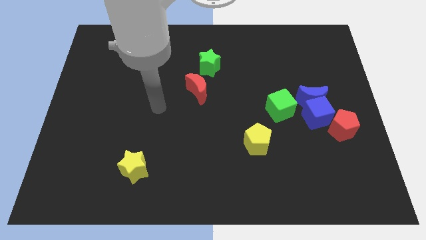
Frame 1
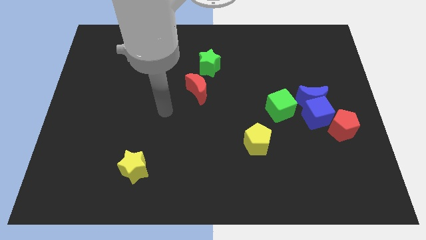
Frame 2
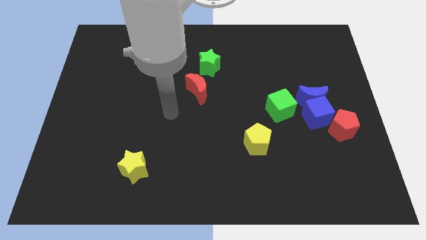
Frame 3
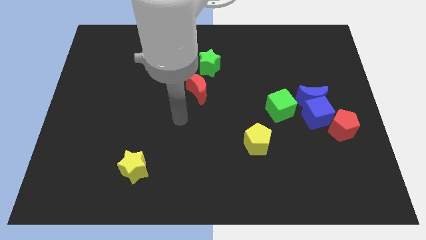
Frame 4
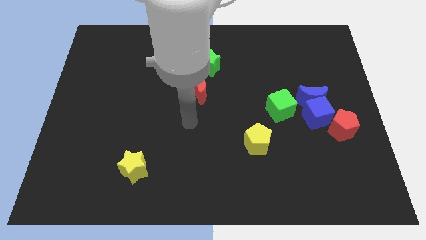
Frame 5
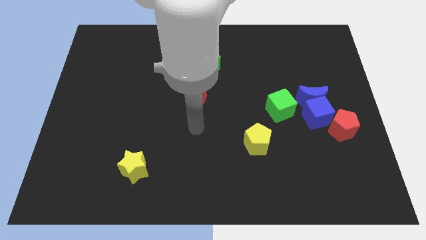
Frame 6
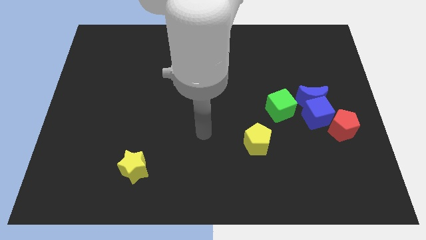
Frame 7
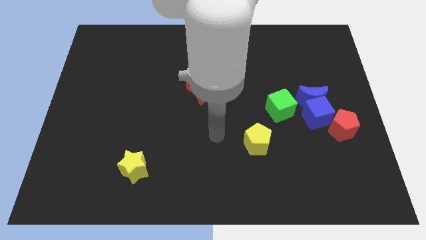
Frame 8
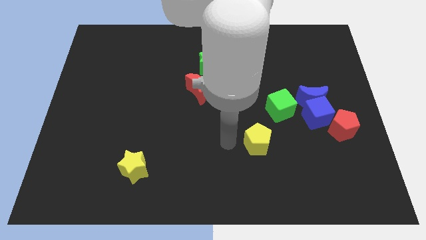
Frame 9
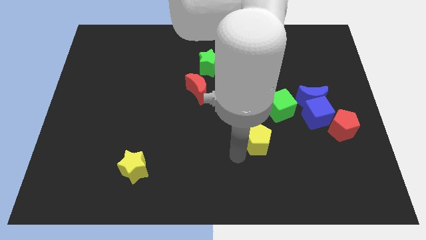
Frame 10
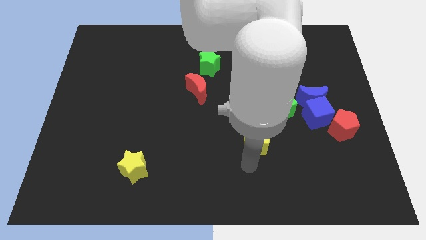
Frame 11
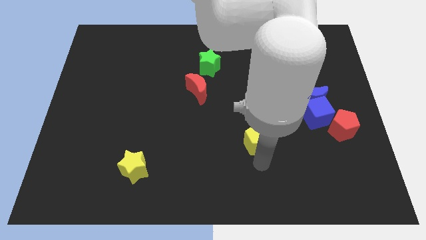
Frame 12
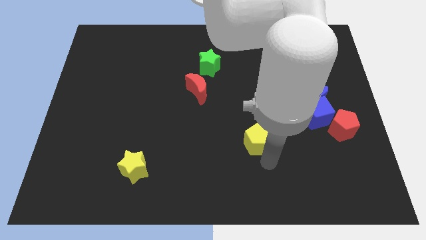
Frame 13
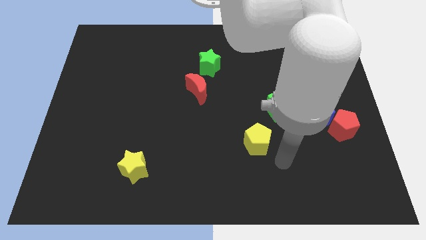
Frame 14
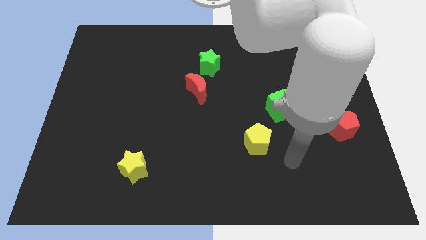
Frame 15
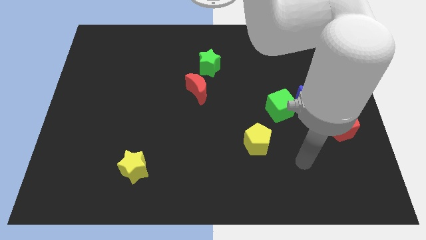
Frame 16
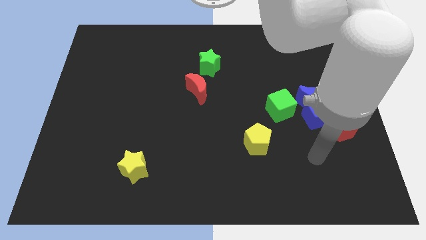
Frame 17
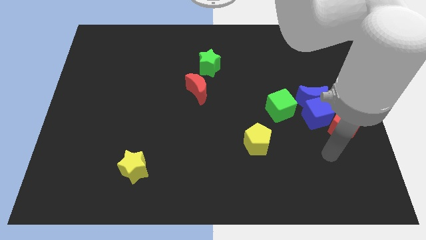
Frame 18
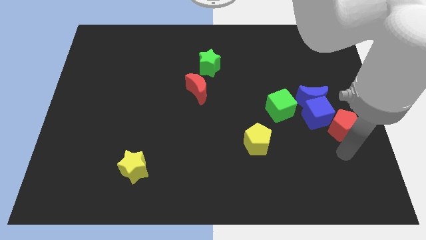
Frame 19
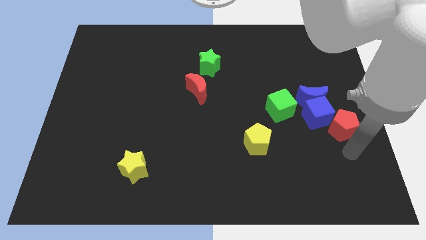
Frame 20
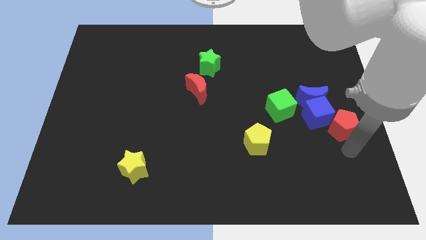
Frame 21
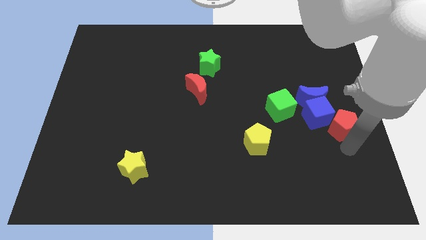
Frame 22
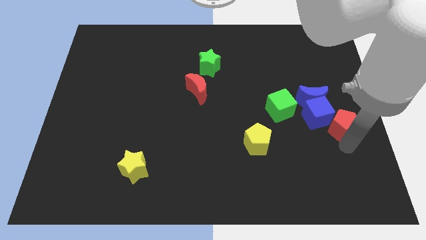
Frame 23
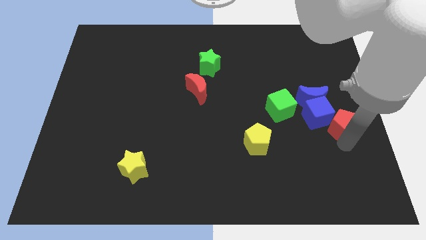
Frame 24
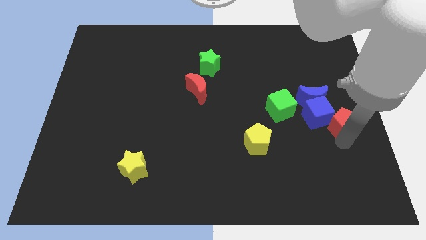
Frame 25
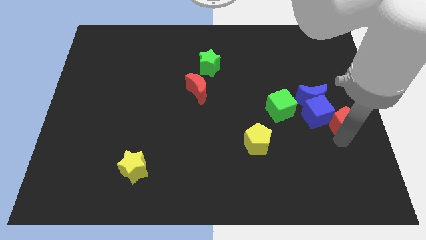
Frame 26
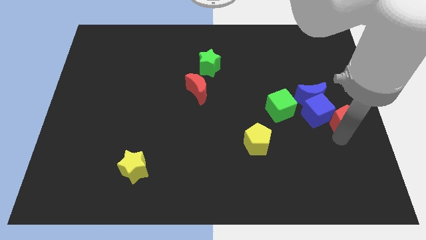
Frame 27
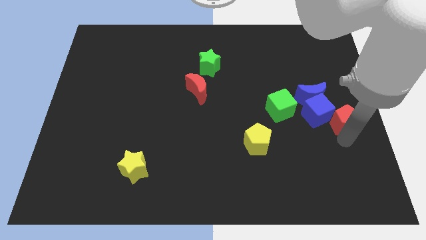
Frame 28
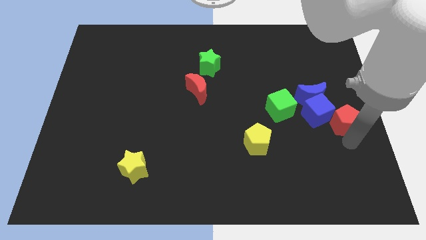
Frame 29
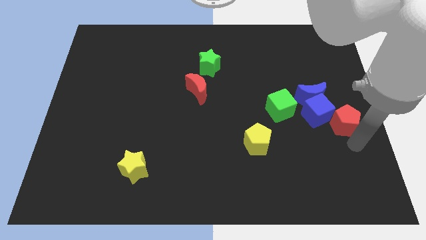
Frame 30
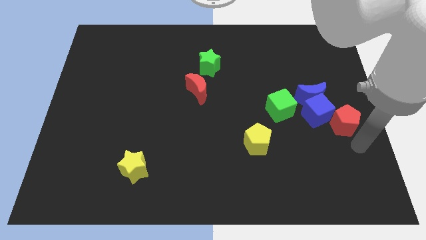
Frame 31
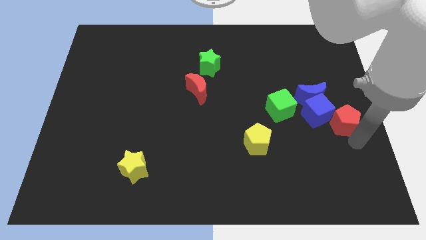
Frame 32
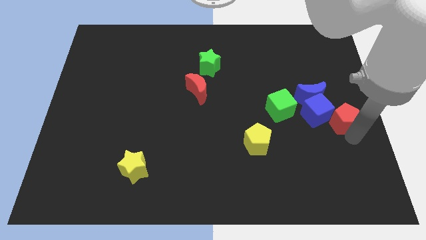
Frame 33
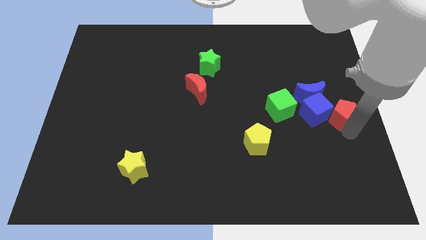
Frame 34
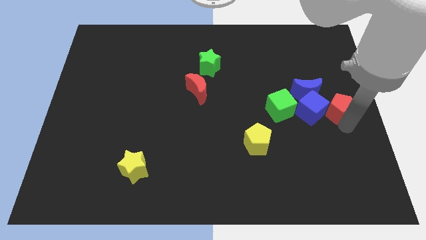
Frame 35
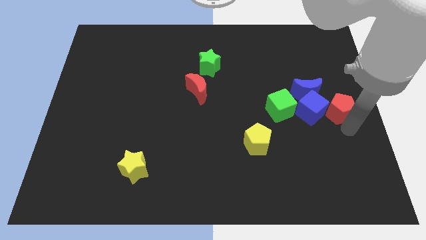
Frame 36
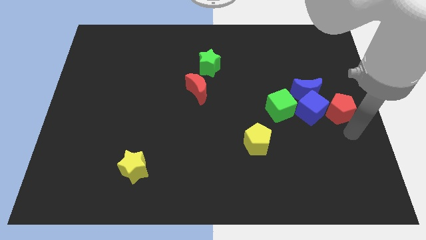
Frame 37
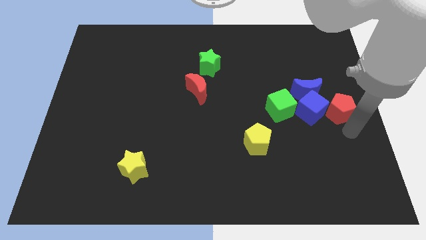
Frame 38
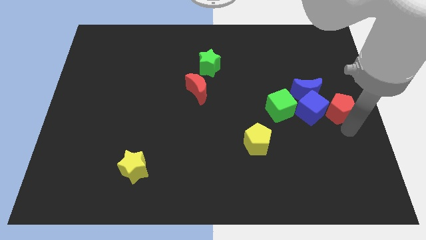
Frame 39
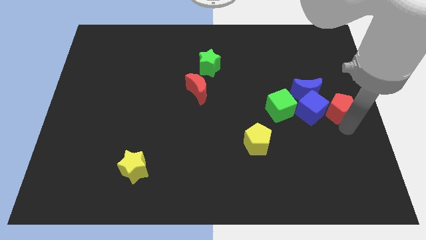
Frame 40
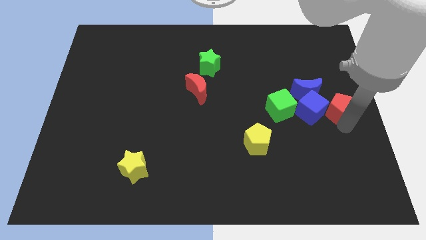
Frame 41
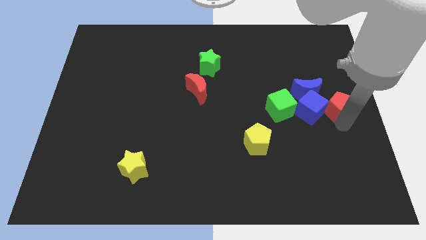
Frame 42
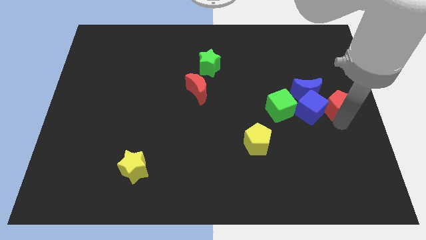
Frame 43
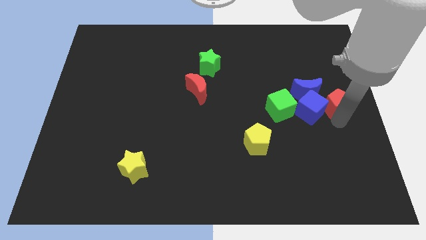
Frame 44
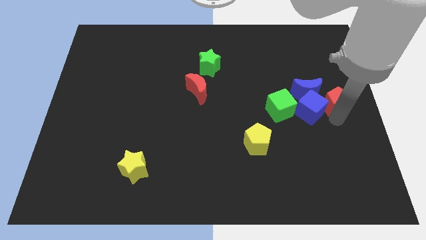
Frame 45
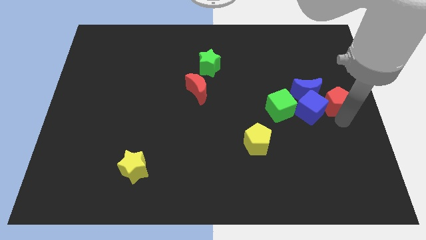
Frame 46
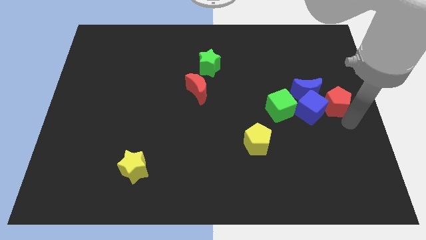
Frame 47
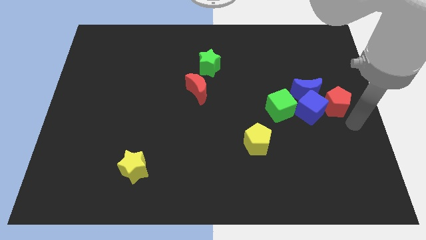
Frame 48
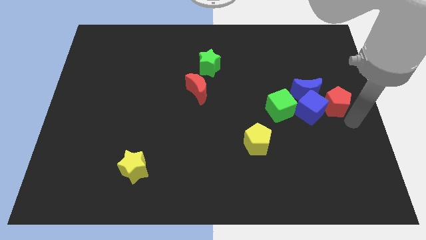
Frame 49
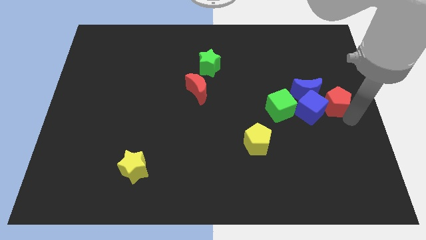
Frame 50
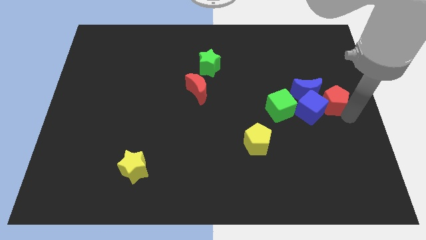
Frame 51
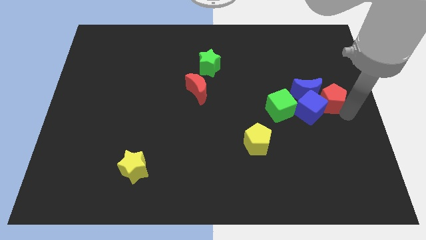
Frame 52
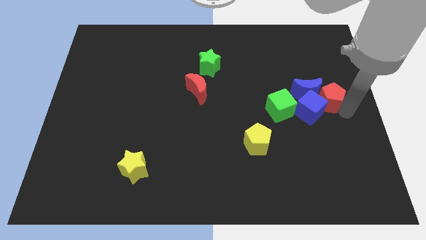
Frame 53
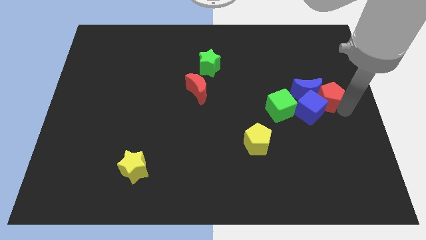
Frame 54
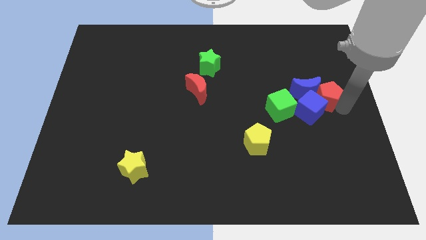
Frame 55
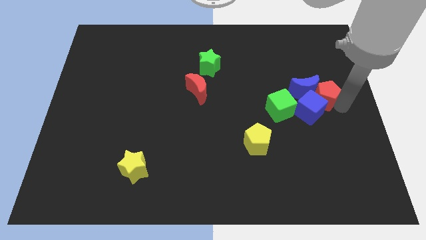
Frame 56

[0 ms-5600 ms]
slightly slide the red pentagon diagonally up and to the left

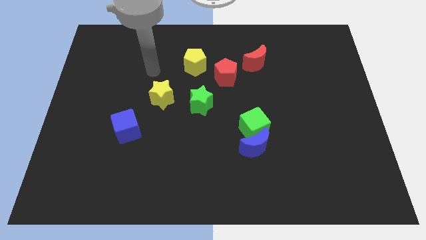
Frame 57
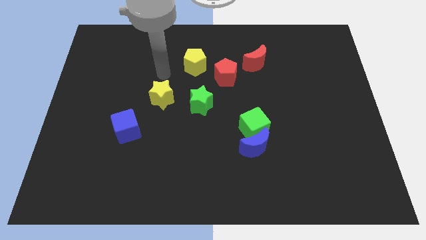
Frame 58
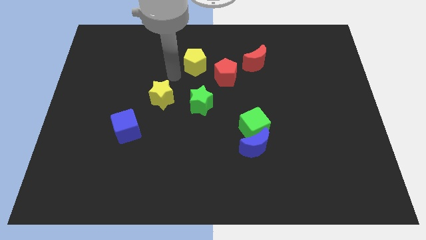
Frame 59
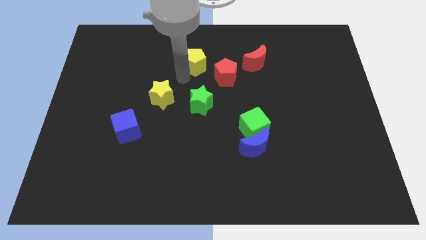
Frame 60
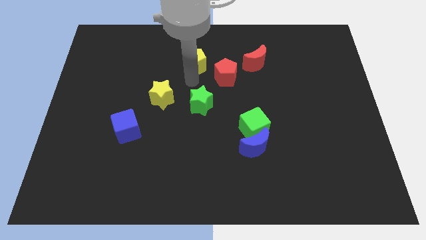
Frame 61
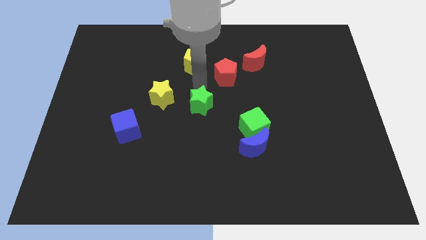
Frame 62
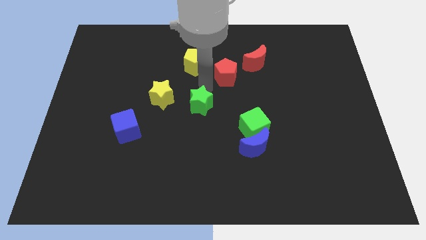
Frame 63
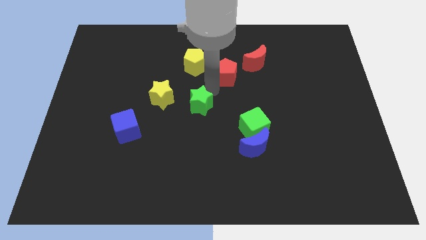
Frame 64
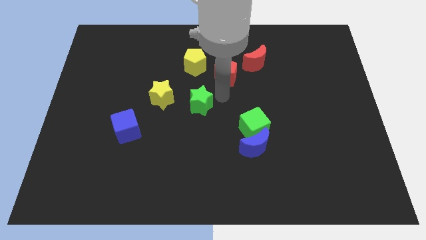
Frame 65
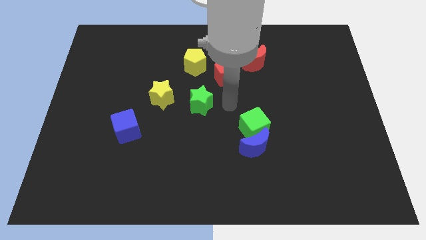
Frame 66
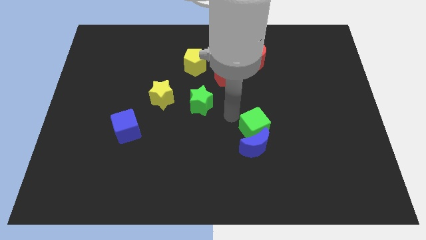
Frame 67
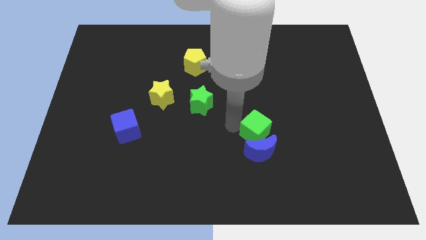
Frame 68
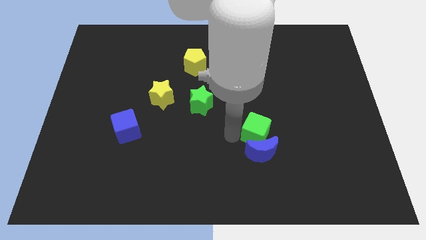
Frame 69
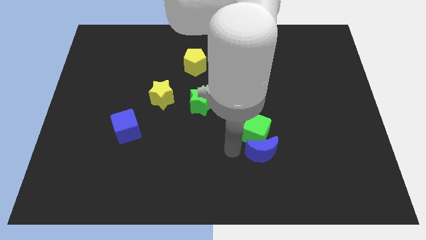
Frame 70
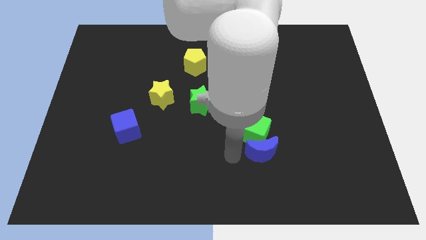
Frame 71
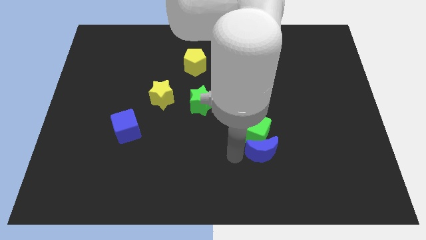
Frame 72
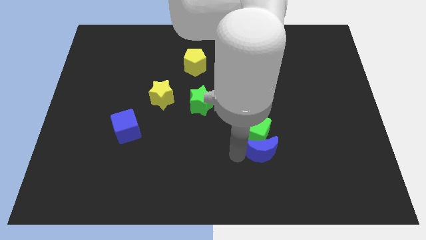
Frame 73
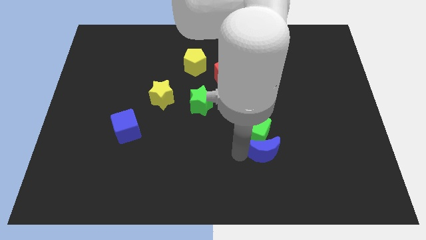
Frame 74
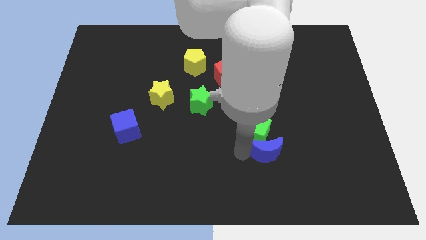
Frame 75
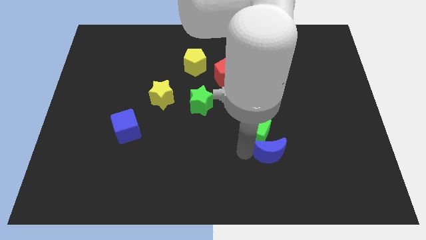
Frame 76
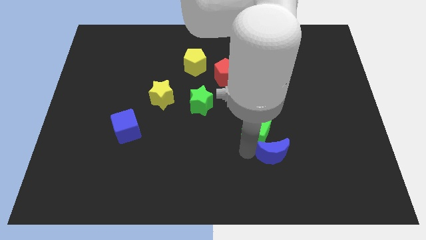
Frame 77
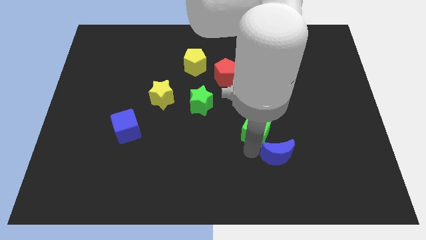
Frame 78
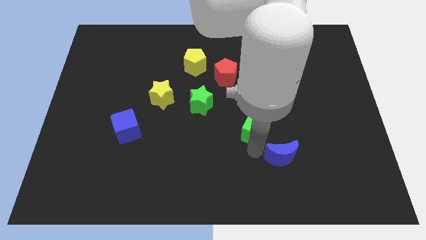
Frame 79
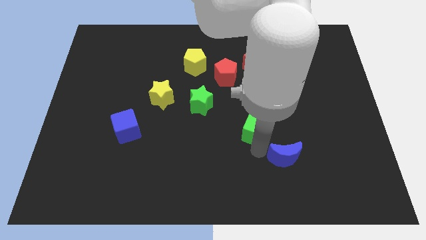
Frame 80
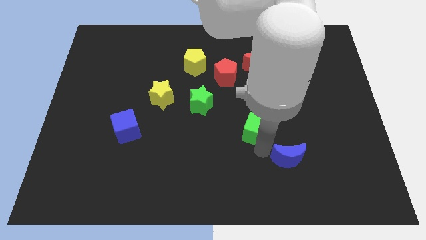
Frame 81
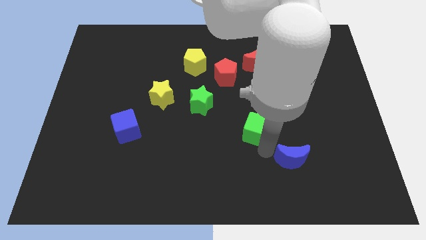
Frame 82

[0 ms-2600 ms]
slightly move the blue moon to the right
